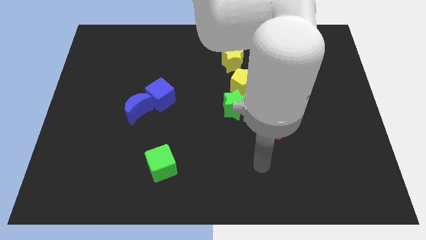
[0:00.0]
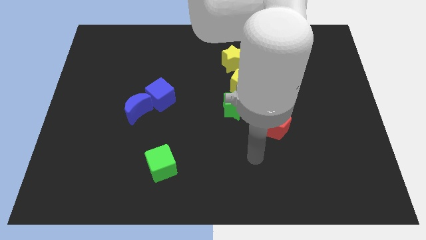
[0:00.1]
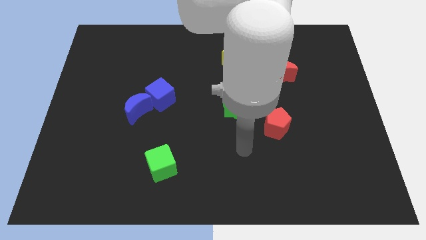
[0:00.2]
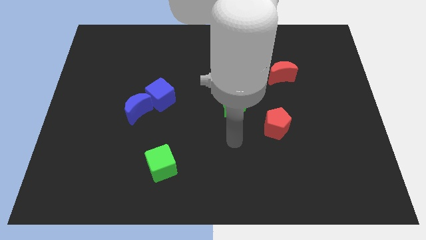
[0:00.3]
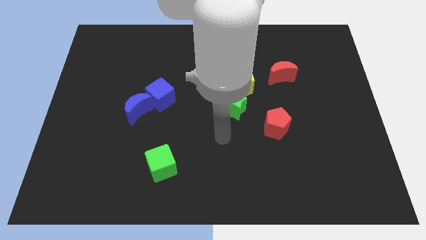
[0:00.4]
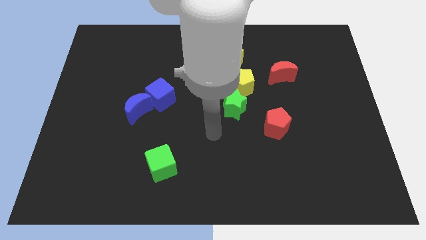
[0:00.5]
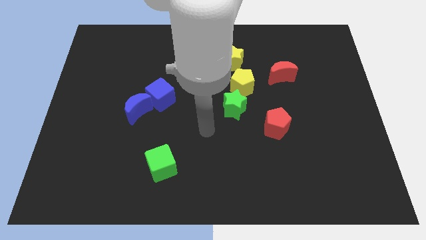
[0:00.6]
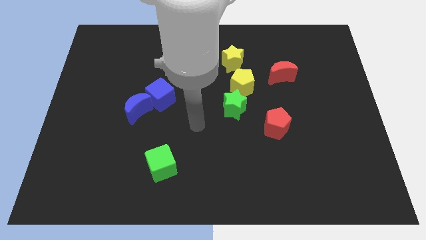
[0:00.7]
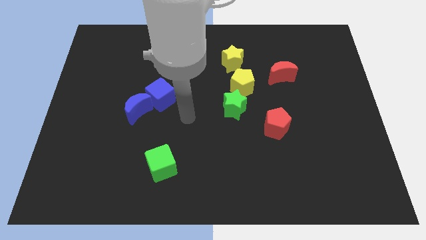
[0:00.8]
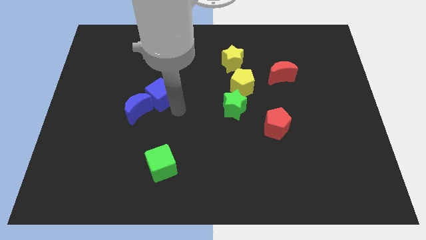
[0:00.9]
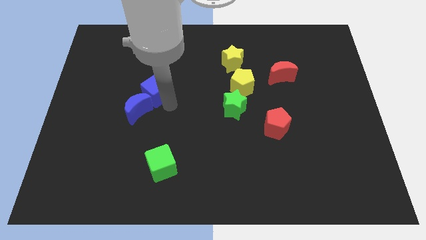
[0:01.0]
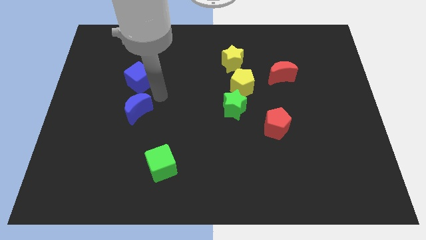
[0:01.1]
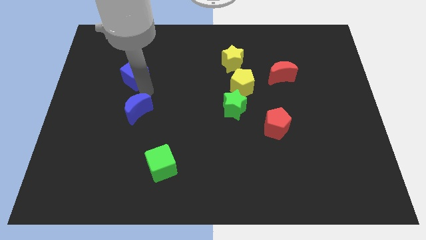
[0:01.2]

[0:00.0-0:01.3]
separate the blue moon from the blue cube

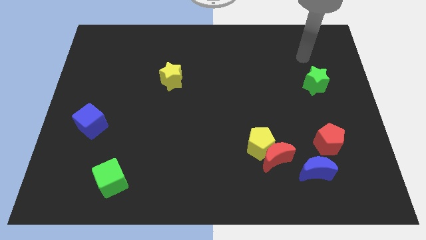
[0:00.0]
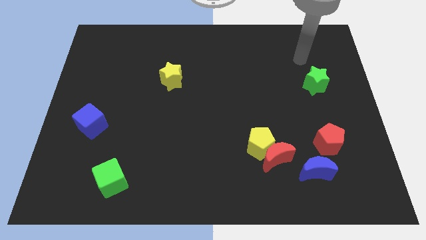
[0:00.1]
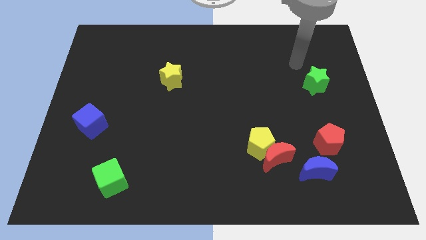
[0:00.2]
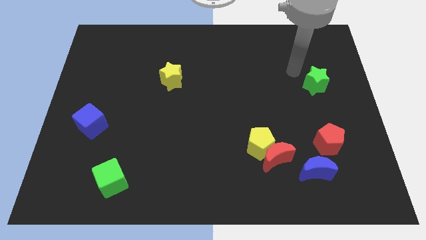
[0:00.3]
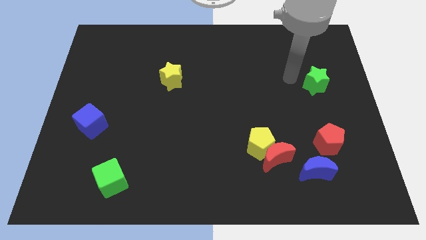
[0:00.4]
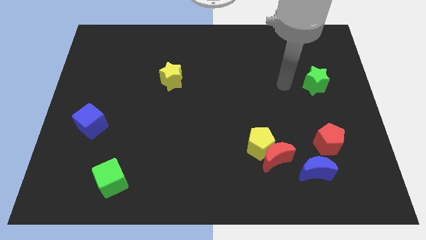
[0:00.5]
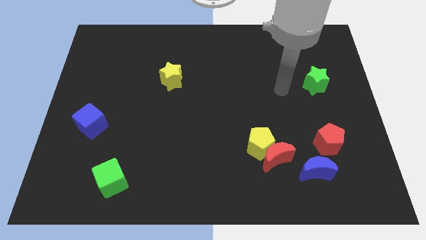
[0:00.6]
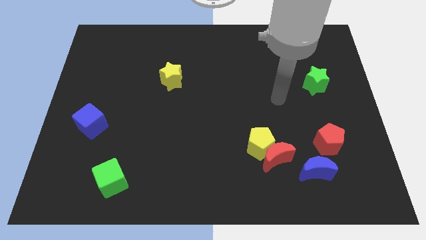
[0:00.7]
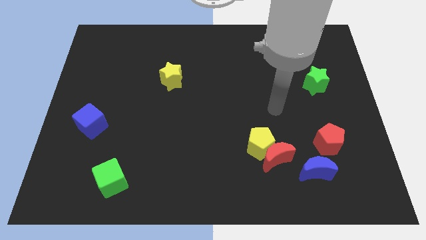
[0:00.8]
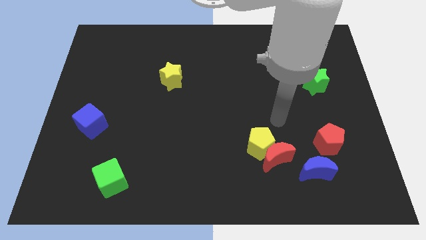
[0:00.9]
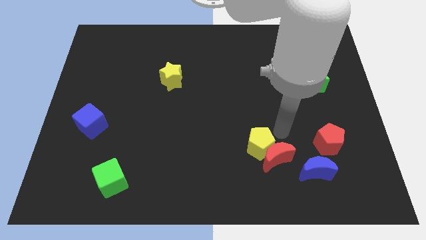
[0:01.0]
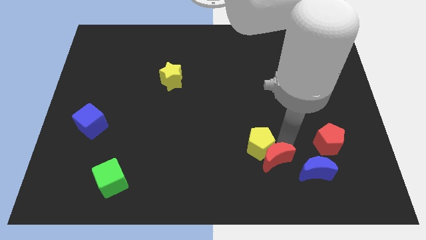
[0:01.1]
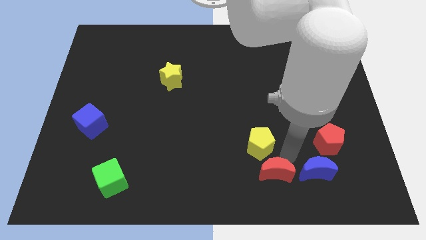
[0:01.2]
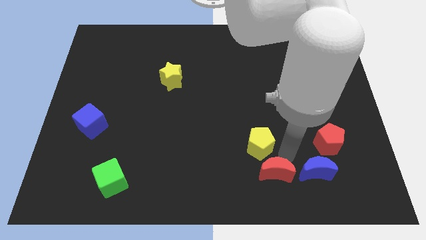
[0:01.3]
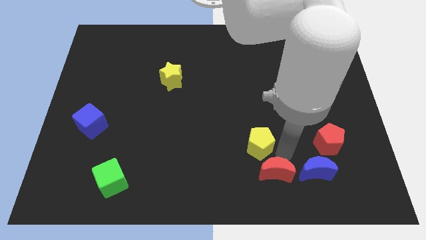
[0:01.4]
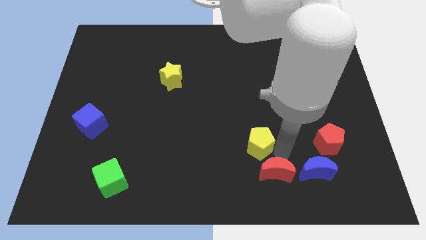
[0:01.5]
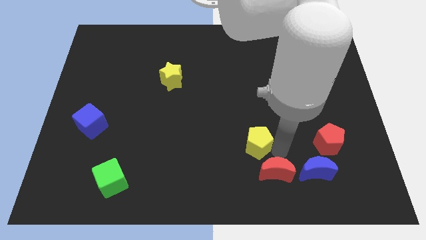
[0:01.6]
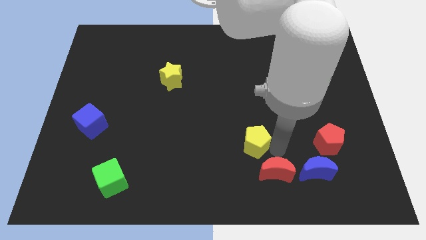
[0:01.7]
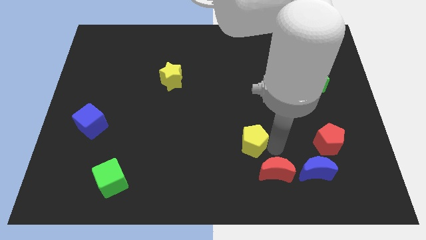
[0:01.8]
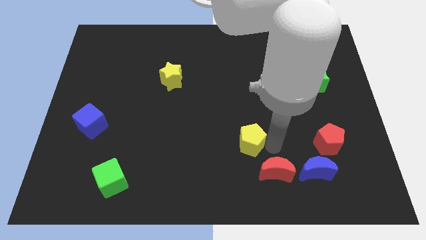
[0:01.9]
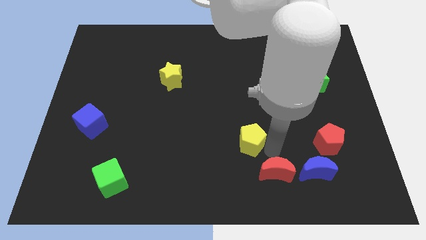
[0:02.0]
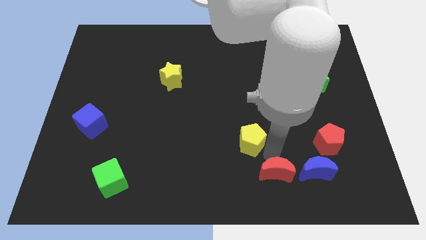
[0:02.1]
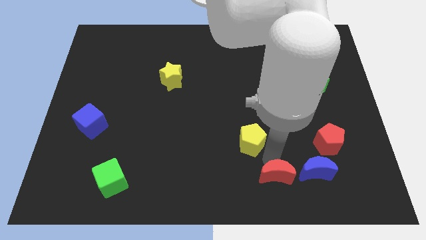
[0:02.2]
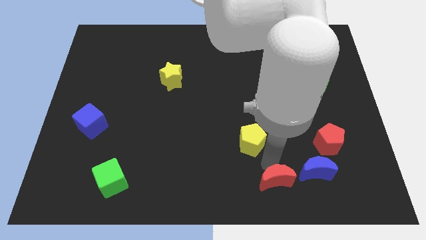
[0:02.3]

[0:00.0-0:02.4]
move the yellow pentagon away from the red moon

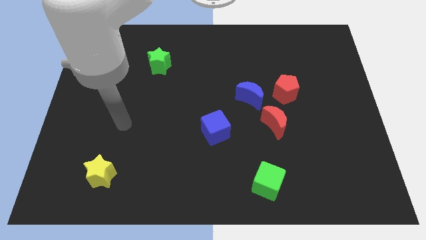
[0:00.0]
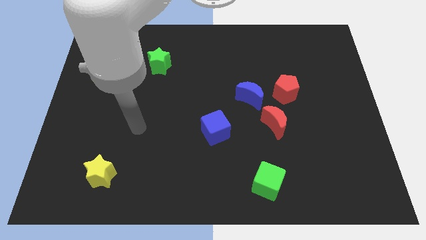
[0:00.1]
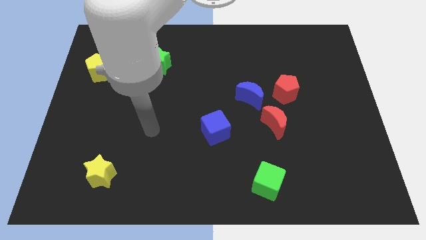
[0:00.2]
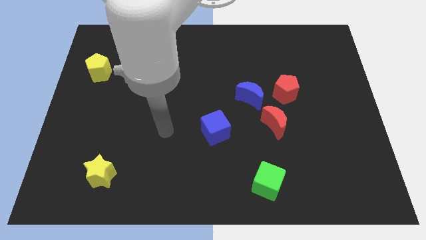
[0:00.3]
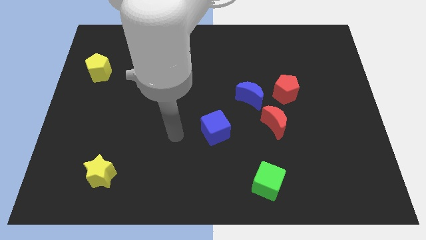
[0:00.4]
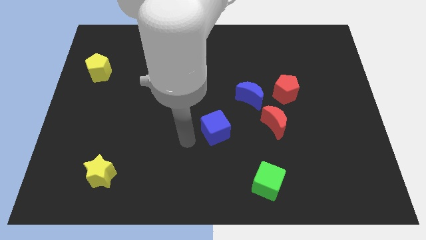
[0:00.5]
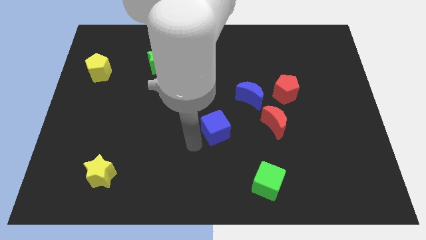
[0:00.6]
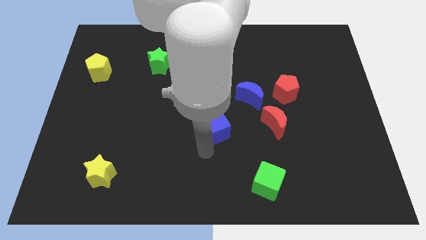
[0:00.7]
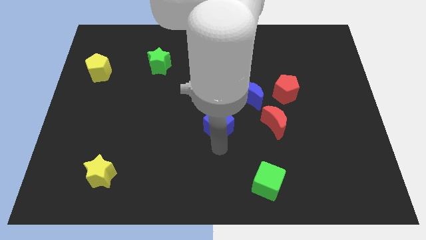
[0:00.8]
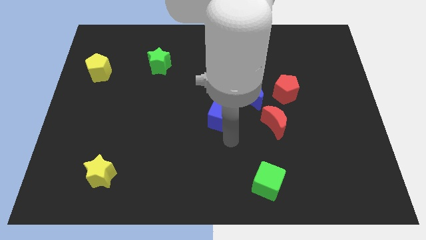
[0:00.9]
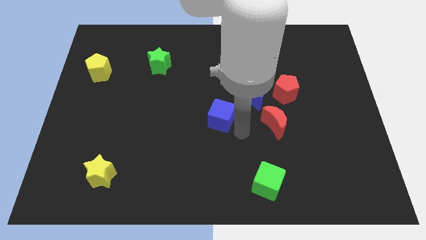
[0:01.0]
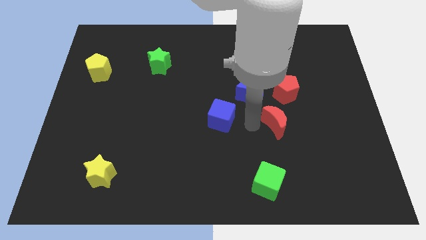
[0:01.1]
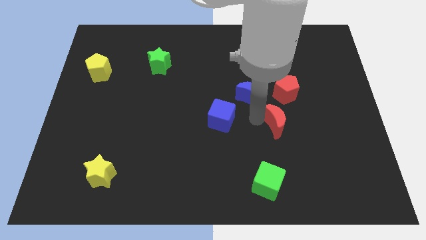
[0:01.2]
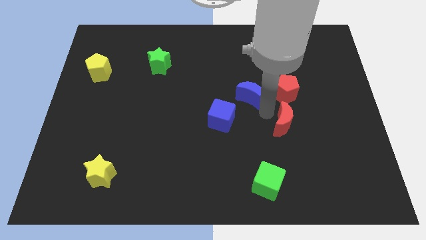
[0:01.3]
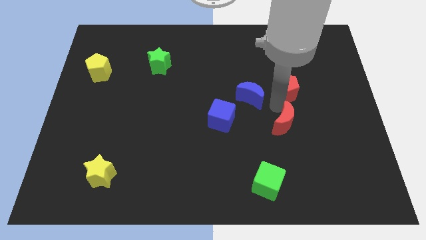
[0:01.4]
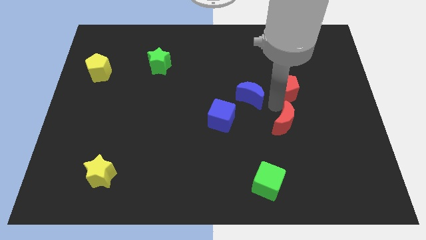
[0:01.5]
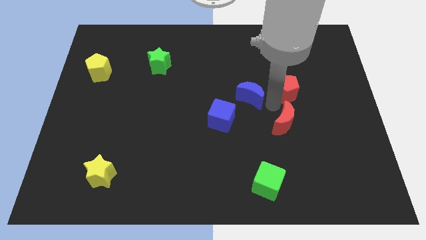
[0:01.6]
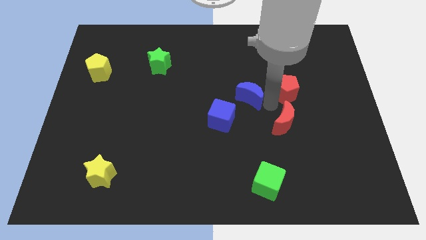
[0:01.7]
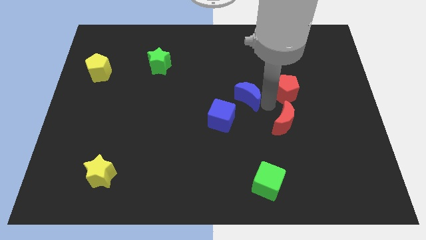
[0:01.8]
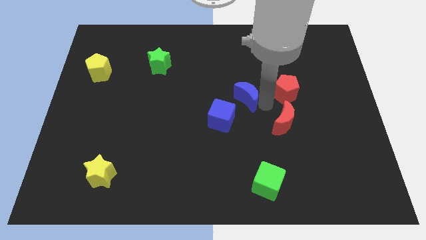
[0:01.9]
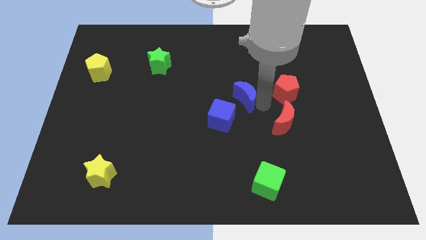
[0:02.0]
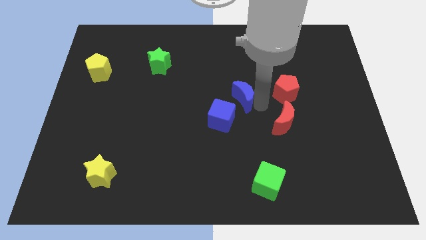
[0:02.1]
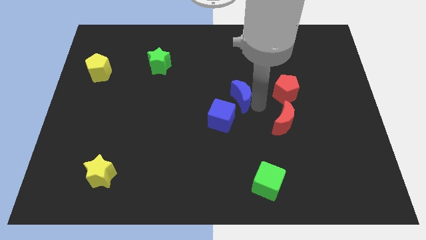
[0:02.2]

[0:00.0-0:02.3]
pull the blue moon apart from the red pentagon and red moon

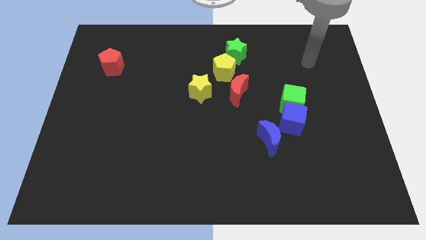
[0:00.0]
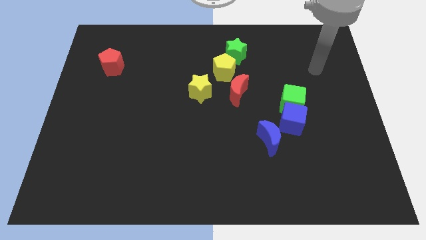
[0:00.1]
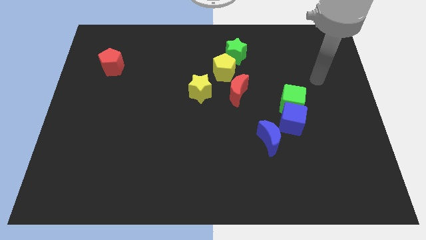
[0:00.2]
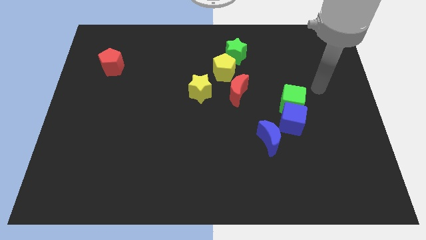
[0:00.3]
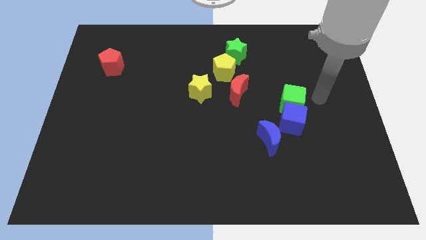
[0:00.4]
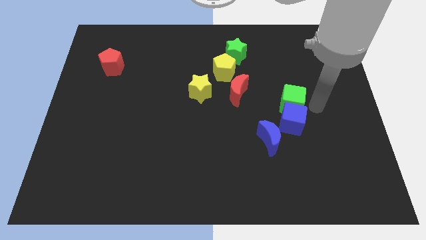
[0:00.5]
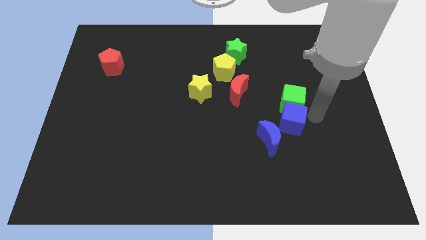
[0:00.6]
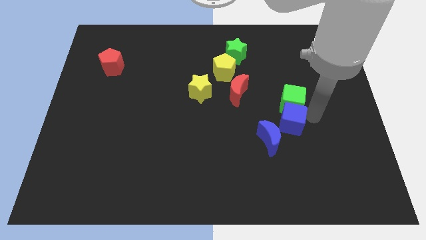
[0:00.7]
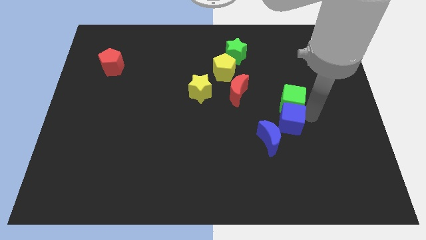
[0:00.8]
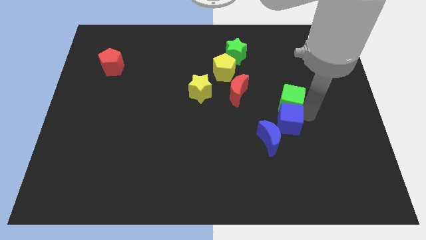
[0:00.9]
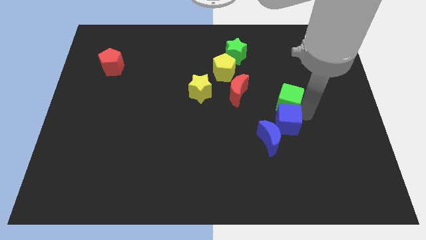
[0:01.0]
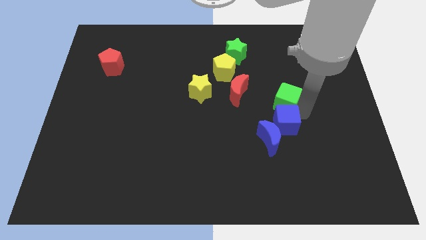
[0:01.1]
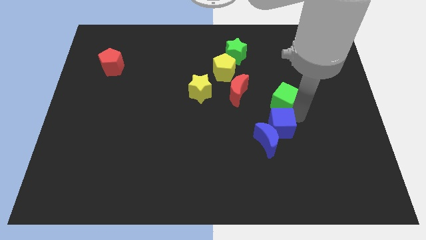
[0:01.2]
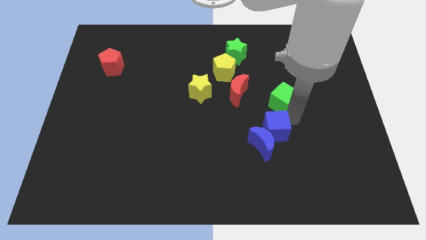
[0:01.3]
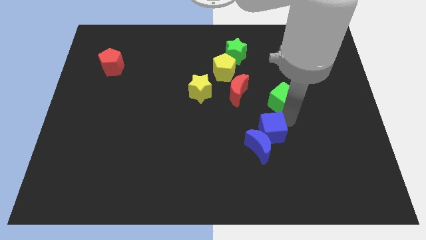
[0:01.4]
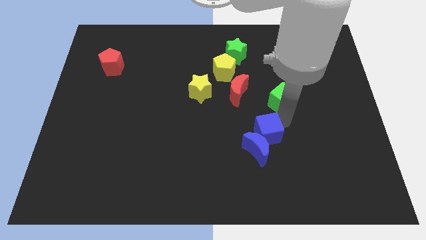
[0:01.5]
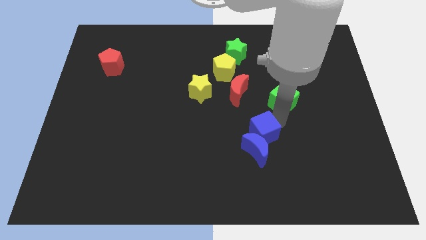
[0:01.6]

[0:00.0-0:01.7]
pull the green cube apart from the blue cube

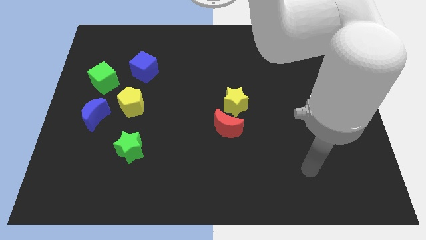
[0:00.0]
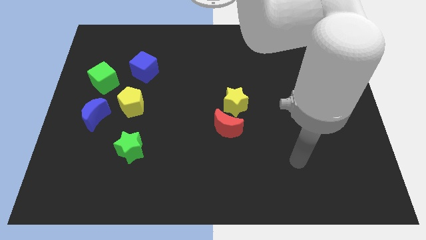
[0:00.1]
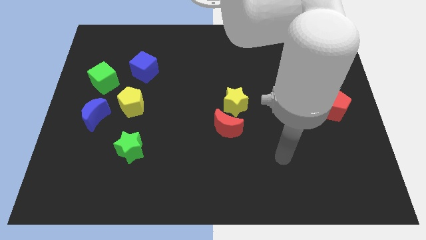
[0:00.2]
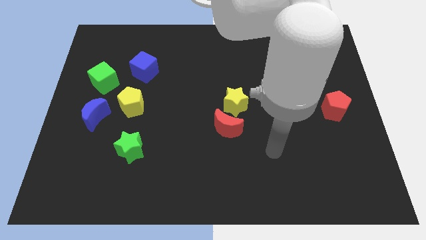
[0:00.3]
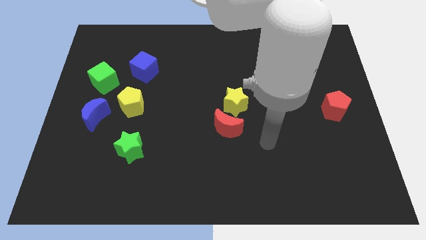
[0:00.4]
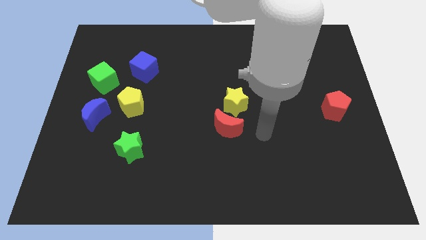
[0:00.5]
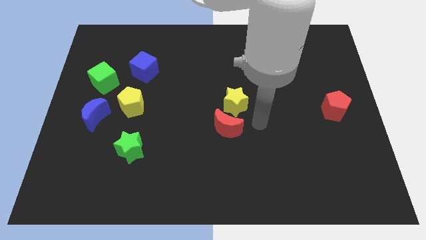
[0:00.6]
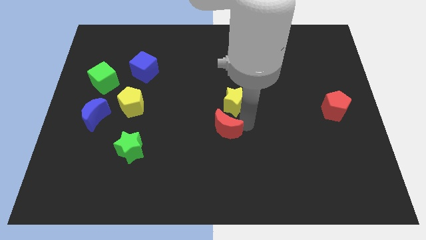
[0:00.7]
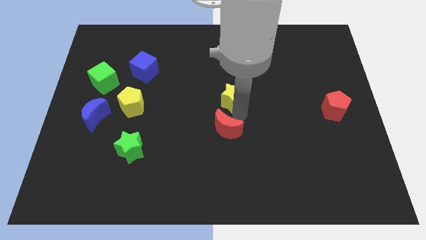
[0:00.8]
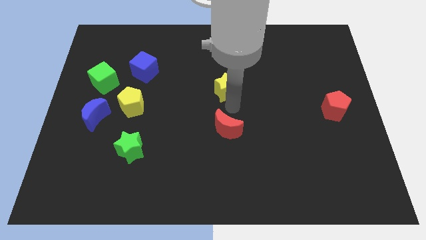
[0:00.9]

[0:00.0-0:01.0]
separate the red moon from the yellow star

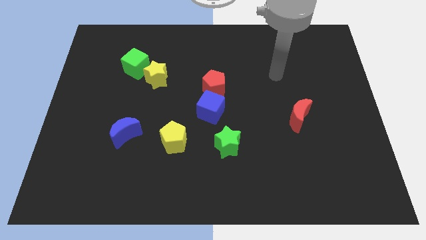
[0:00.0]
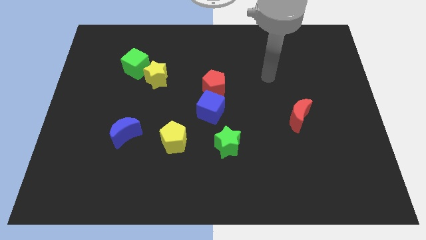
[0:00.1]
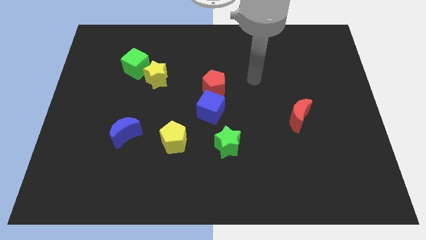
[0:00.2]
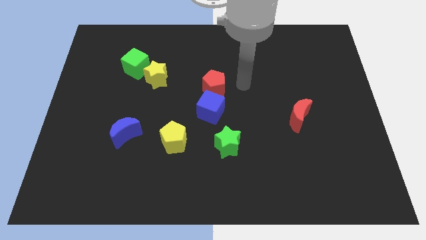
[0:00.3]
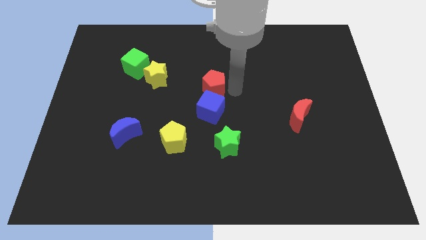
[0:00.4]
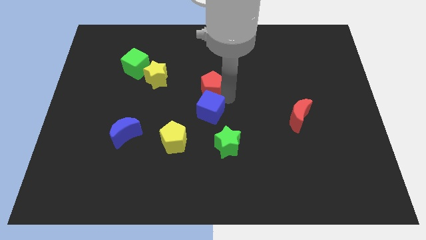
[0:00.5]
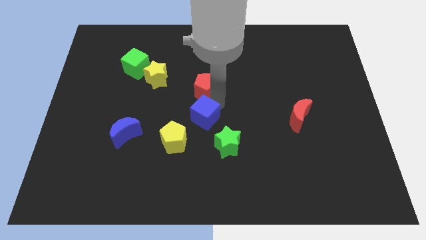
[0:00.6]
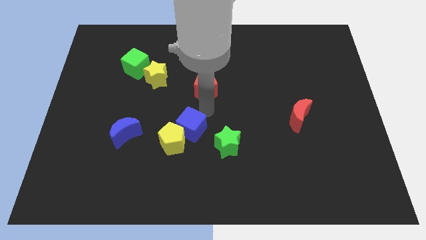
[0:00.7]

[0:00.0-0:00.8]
pull the red pentagon apart from the blue cube
